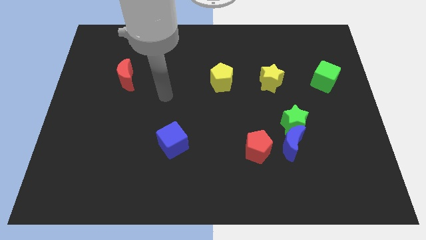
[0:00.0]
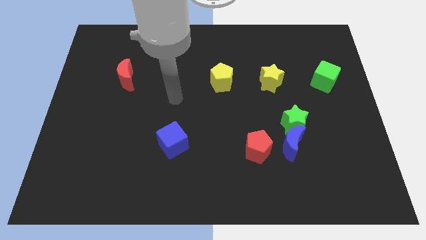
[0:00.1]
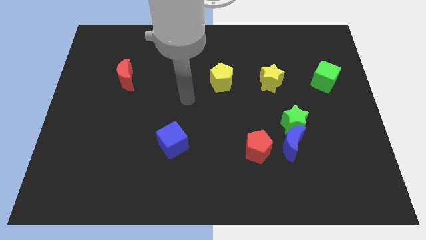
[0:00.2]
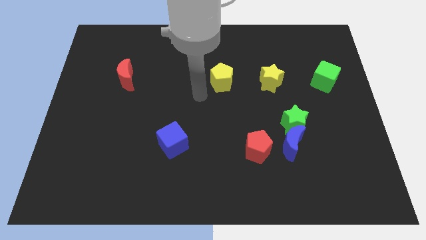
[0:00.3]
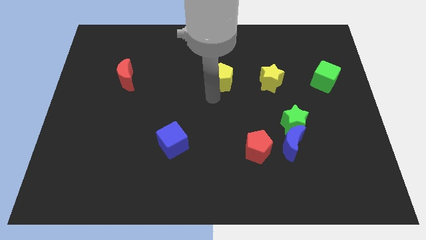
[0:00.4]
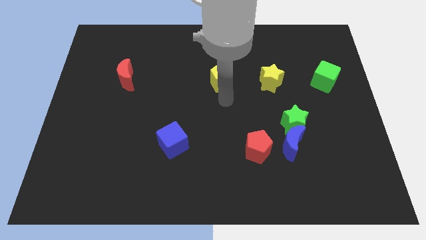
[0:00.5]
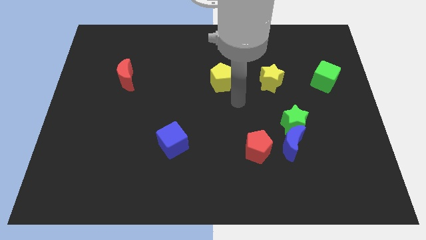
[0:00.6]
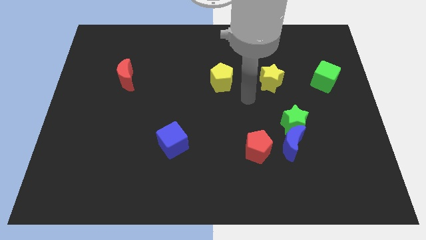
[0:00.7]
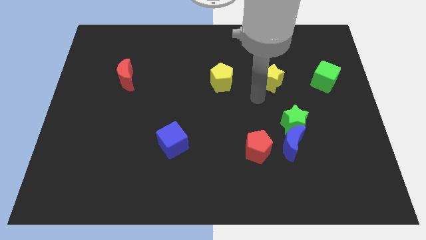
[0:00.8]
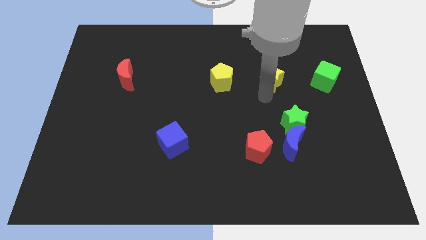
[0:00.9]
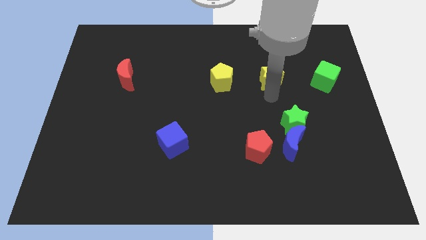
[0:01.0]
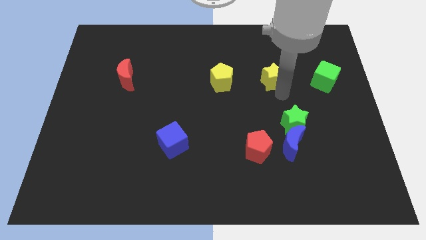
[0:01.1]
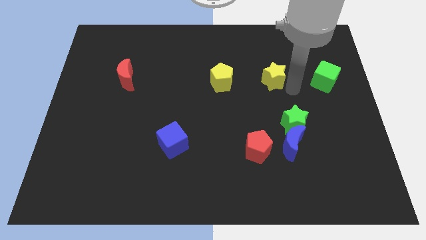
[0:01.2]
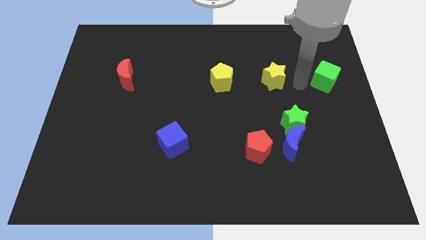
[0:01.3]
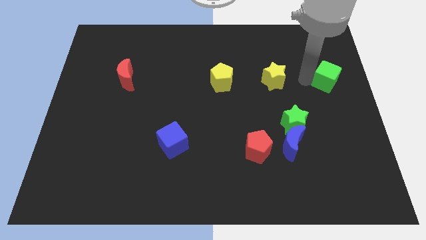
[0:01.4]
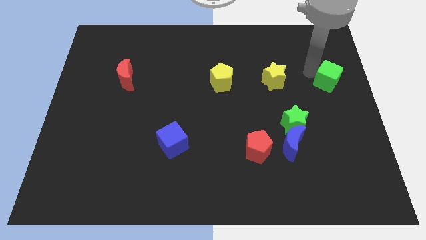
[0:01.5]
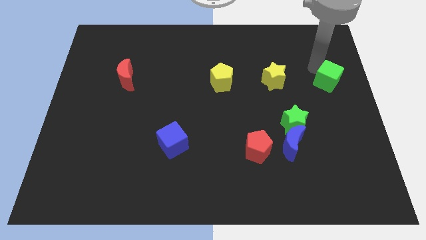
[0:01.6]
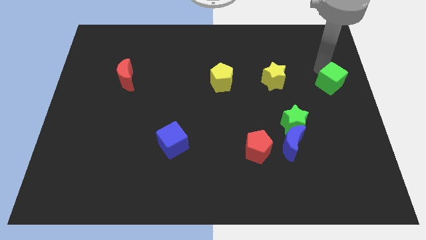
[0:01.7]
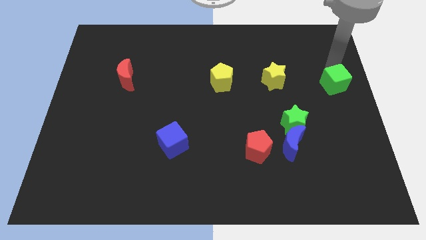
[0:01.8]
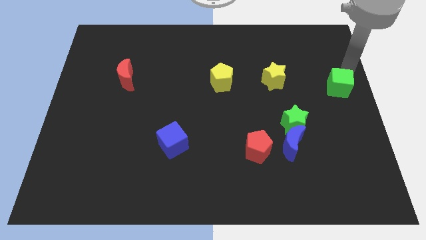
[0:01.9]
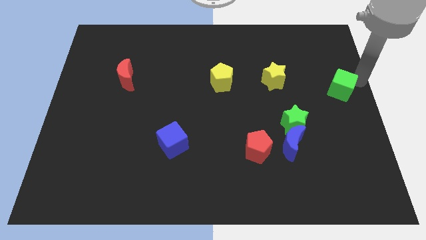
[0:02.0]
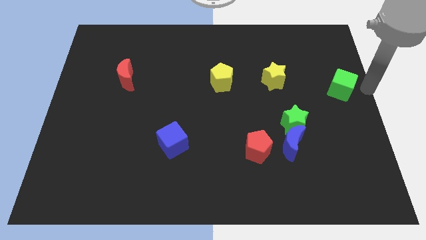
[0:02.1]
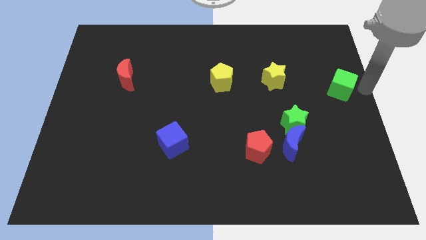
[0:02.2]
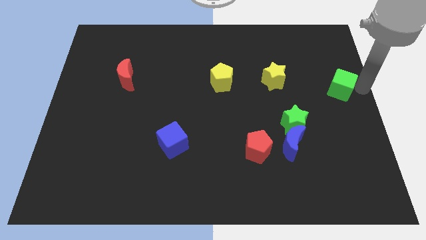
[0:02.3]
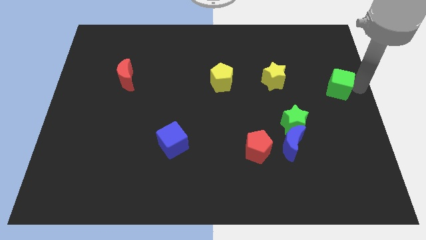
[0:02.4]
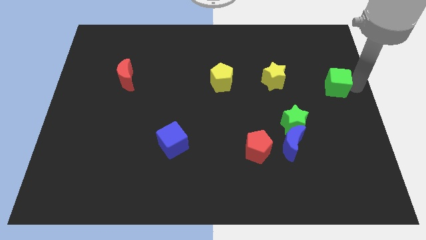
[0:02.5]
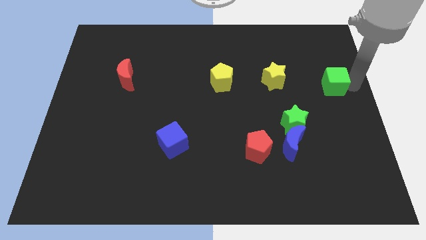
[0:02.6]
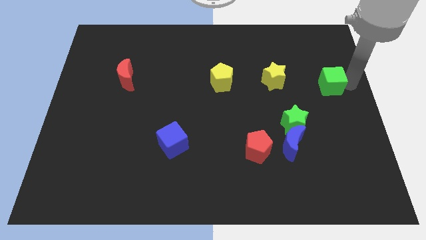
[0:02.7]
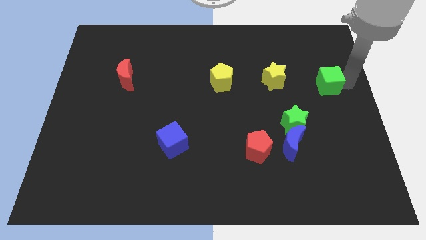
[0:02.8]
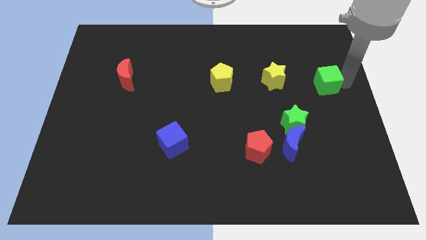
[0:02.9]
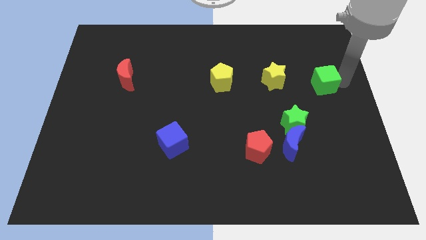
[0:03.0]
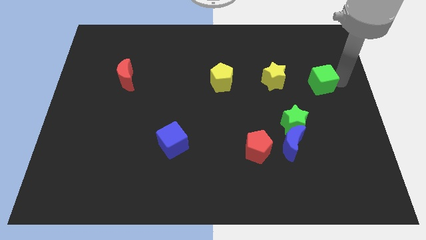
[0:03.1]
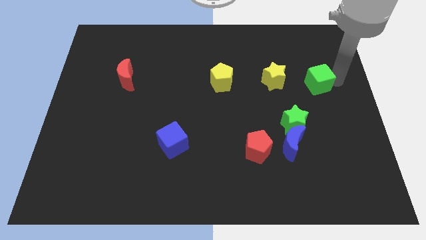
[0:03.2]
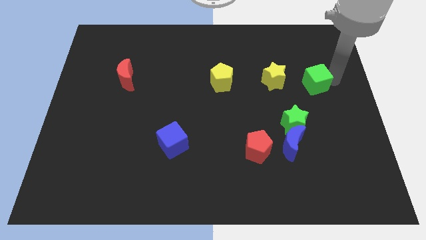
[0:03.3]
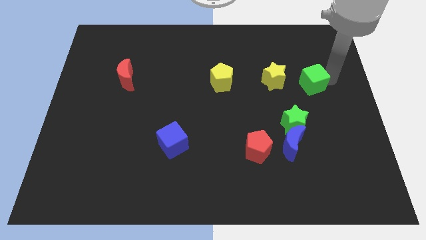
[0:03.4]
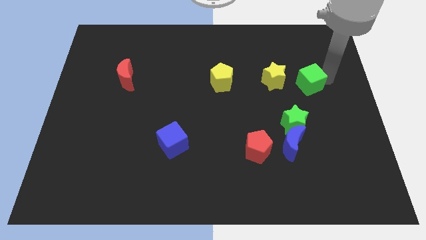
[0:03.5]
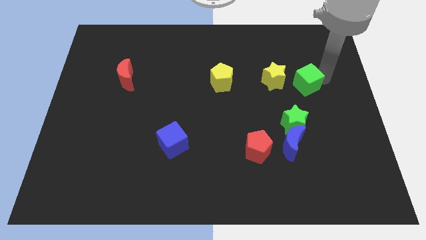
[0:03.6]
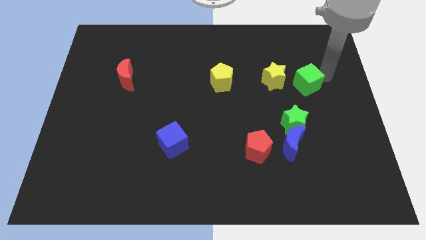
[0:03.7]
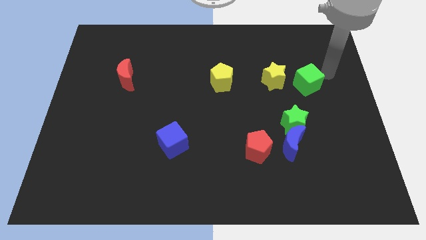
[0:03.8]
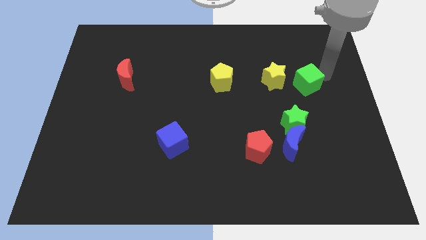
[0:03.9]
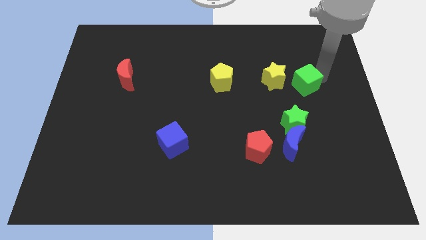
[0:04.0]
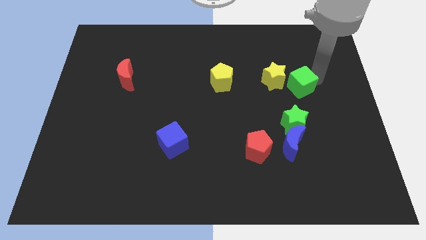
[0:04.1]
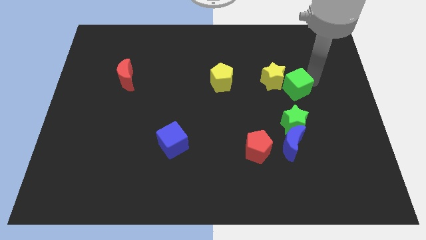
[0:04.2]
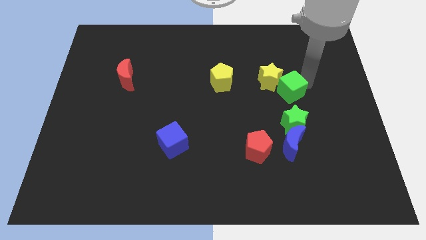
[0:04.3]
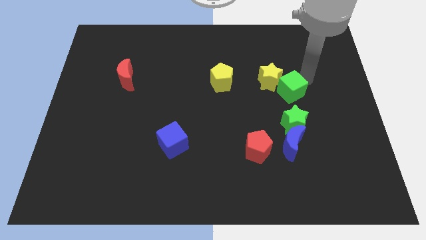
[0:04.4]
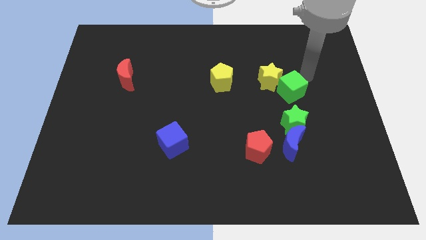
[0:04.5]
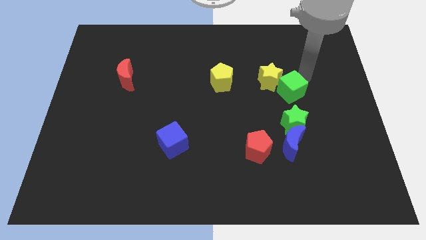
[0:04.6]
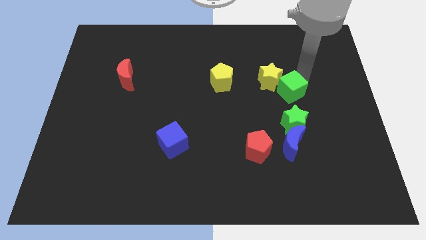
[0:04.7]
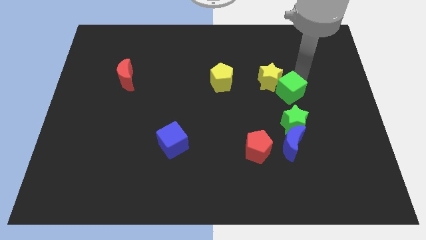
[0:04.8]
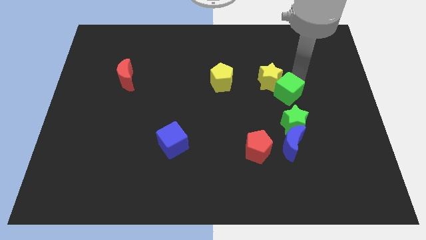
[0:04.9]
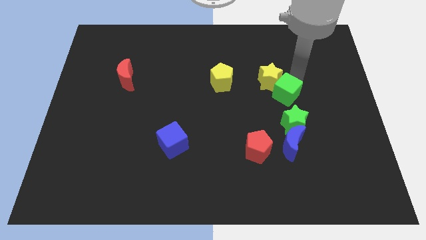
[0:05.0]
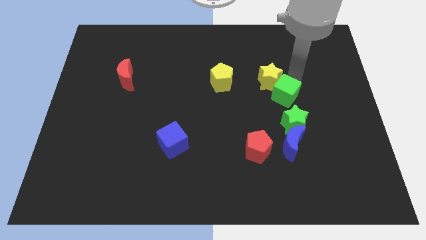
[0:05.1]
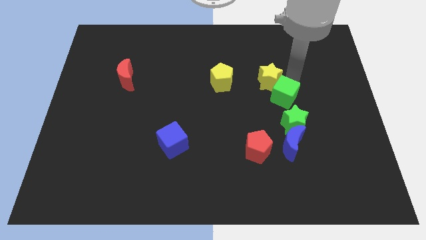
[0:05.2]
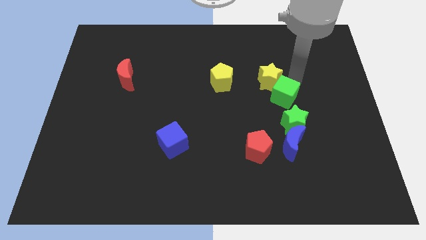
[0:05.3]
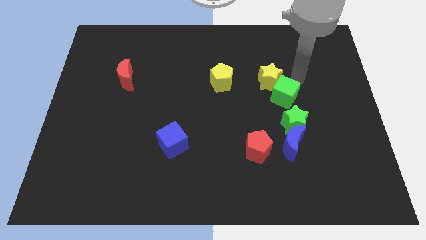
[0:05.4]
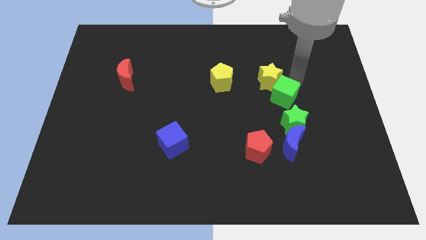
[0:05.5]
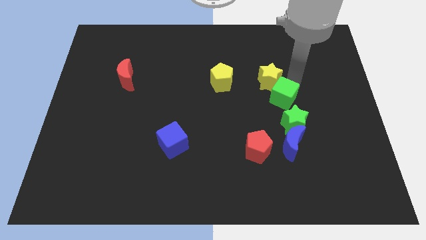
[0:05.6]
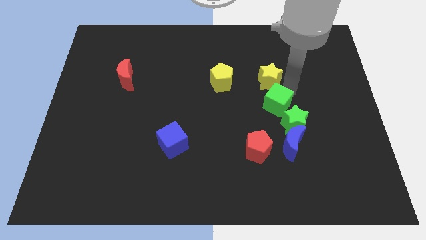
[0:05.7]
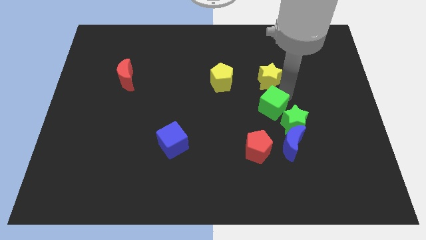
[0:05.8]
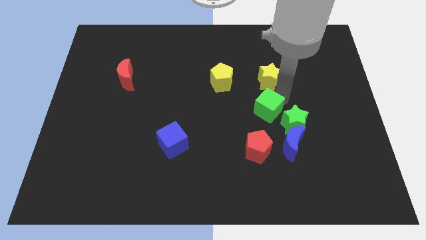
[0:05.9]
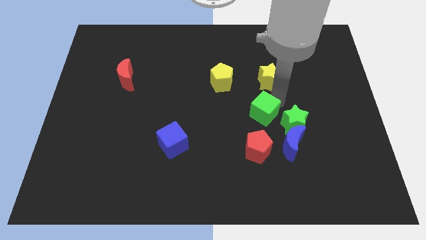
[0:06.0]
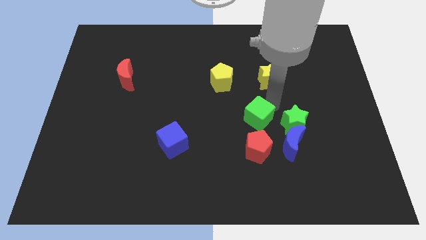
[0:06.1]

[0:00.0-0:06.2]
push the green cube down and left

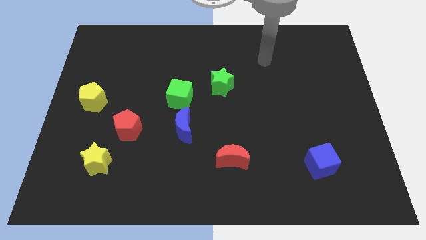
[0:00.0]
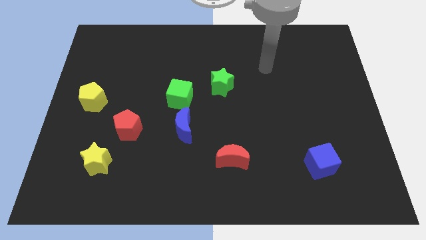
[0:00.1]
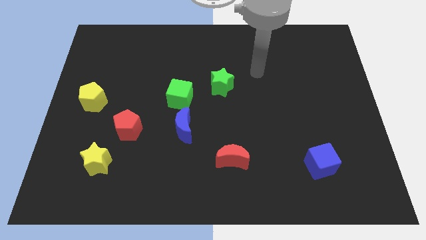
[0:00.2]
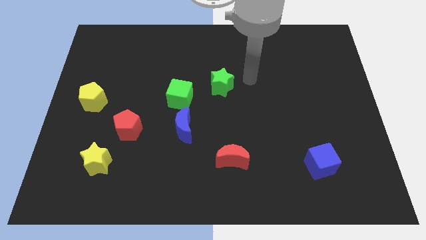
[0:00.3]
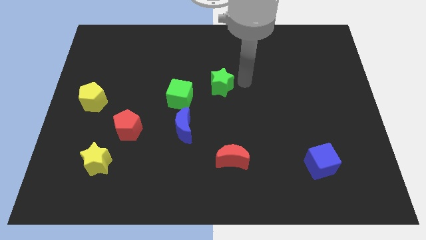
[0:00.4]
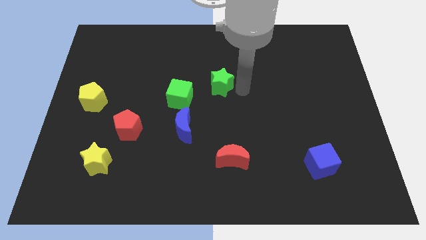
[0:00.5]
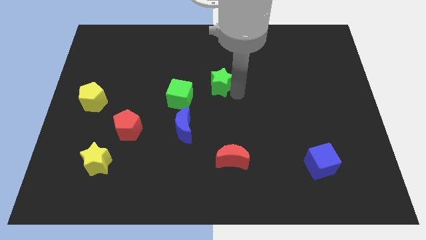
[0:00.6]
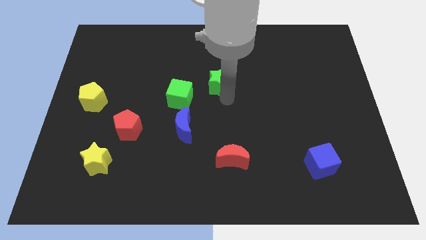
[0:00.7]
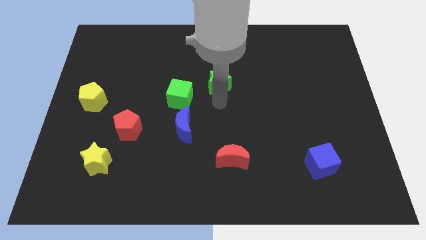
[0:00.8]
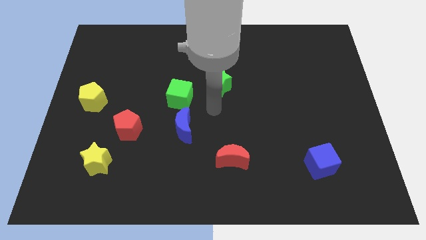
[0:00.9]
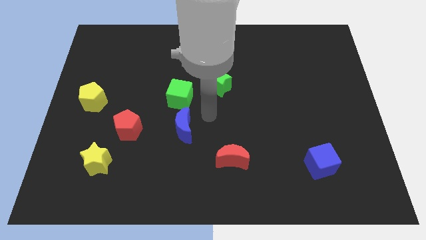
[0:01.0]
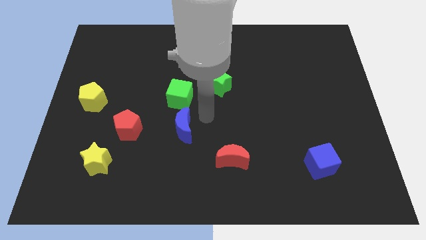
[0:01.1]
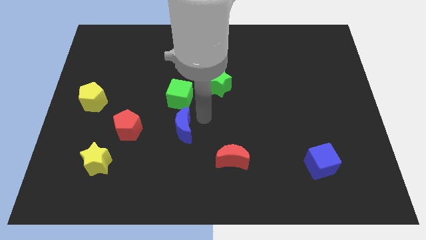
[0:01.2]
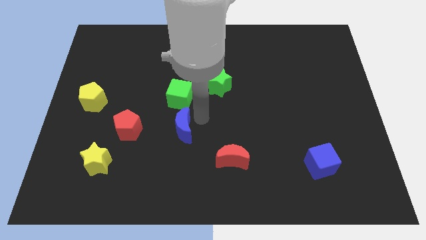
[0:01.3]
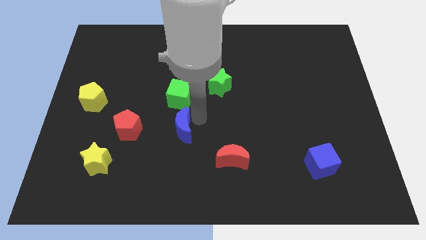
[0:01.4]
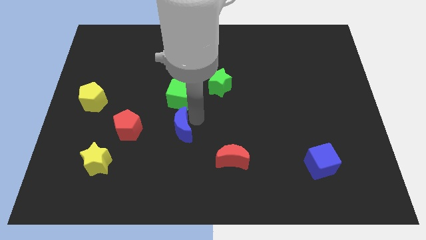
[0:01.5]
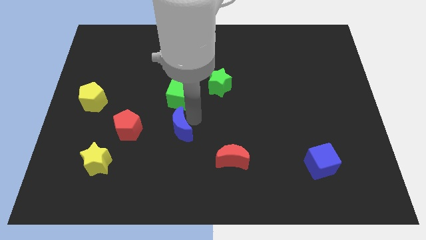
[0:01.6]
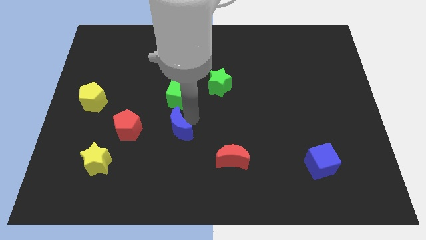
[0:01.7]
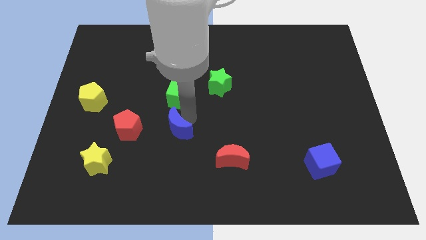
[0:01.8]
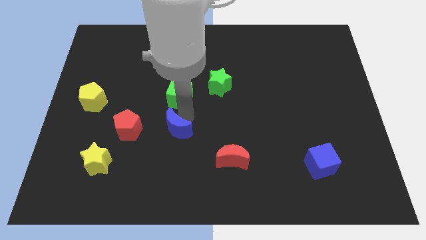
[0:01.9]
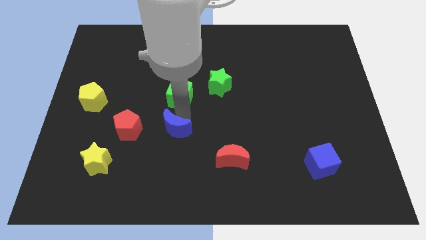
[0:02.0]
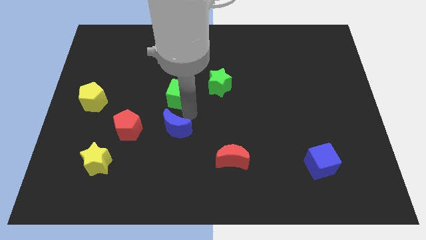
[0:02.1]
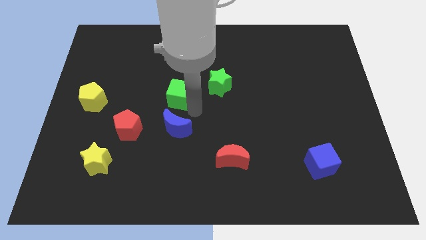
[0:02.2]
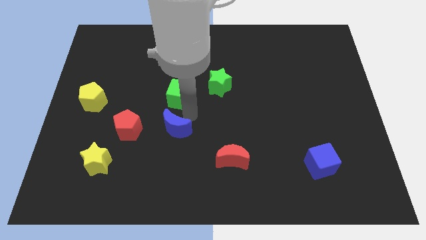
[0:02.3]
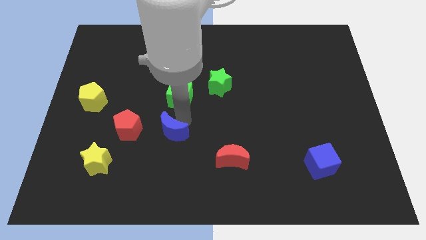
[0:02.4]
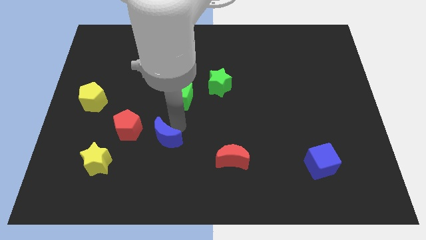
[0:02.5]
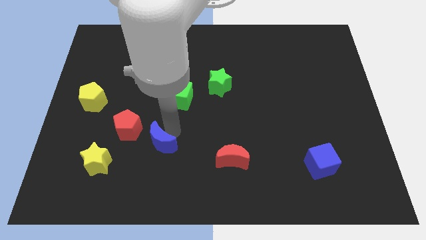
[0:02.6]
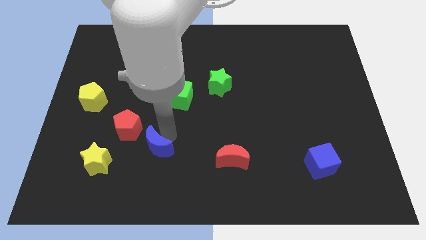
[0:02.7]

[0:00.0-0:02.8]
move the blue moon a little down and to the left diagonally
